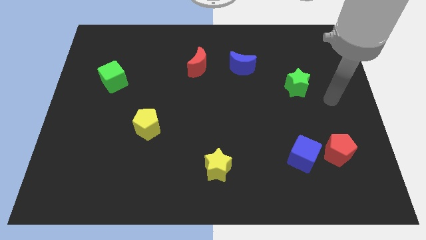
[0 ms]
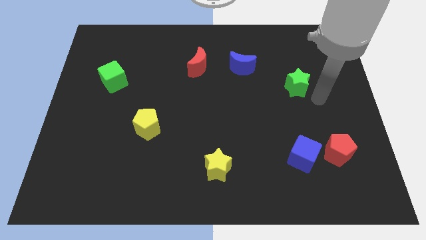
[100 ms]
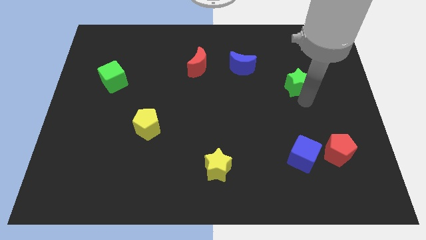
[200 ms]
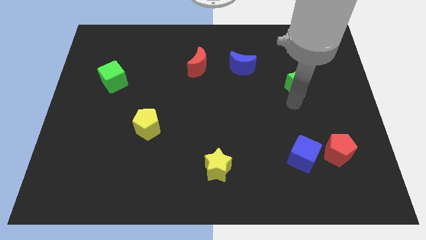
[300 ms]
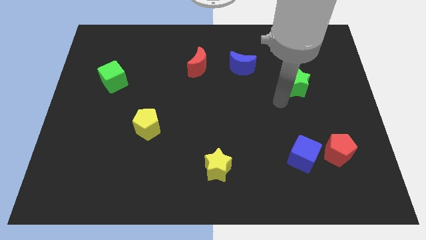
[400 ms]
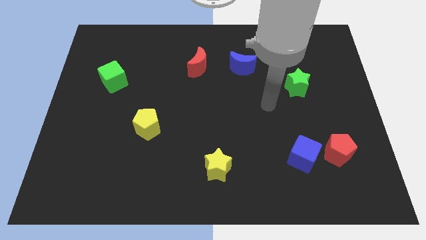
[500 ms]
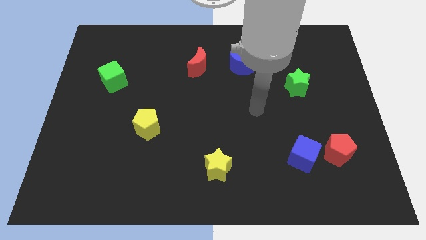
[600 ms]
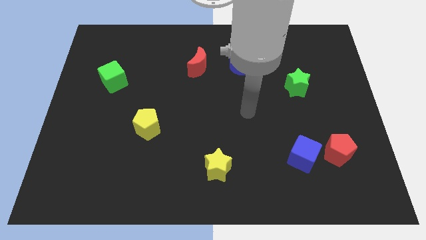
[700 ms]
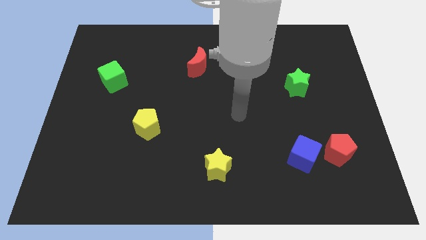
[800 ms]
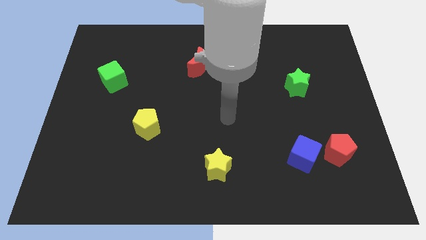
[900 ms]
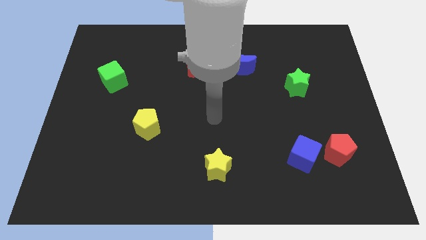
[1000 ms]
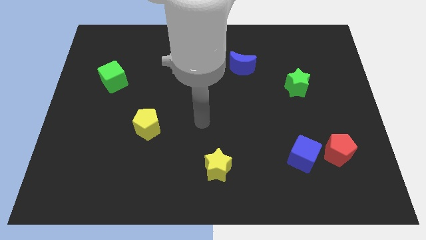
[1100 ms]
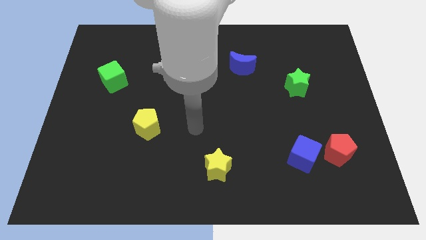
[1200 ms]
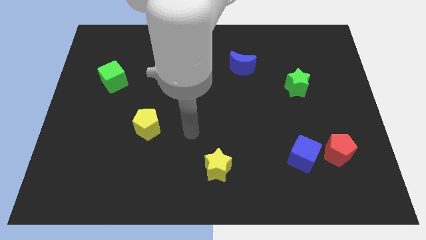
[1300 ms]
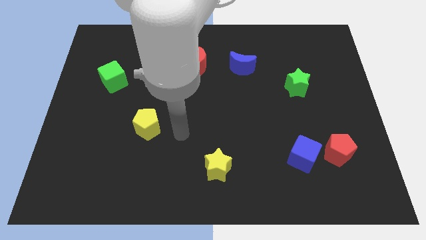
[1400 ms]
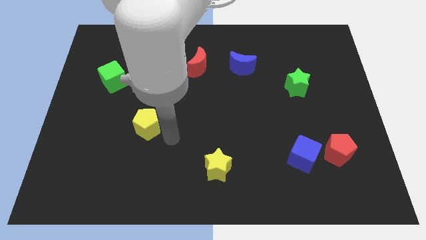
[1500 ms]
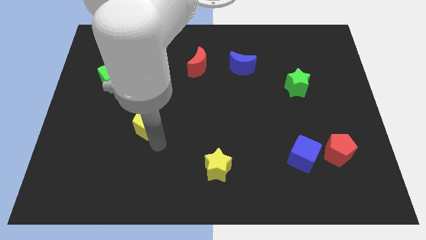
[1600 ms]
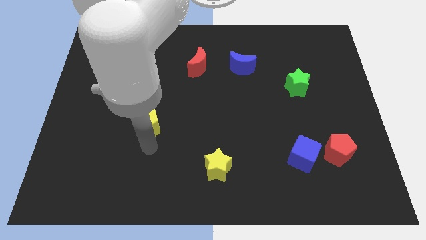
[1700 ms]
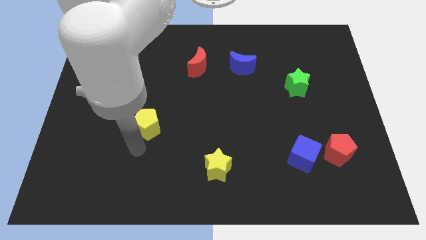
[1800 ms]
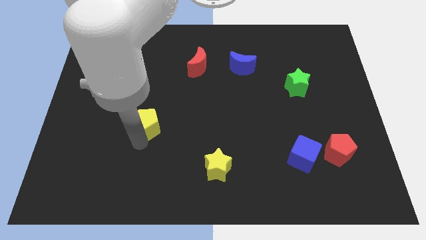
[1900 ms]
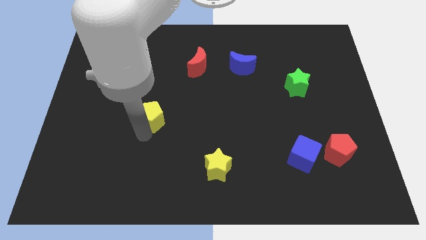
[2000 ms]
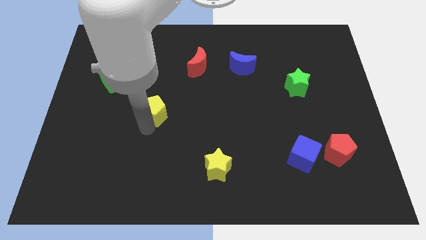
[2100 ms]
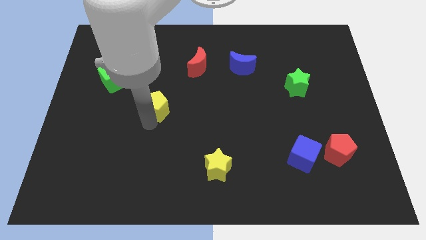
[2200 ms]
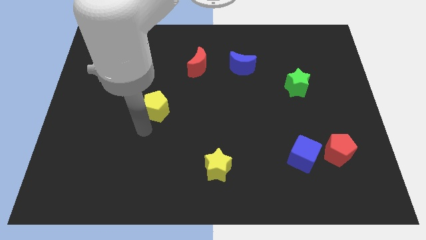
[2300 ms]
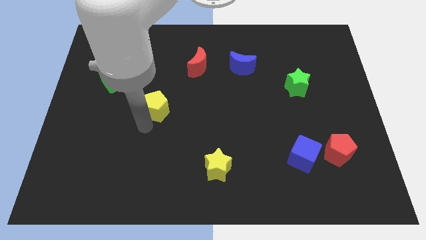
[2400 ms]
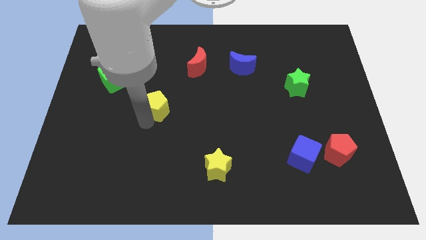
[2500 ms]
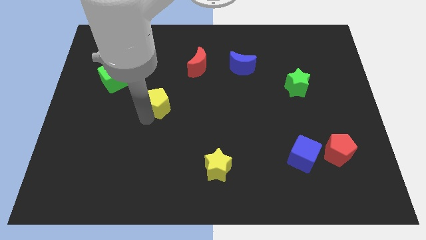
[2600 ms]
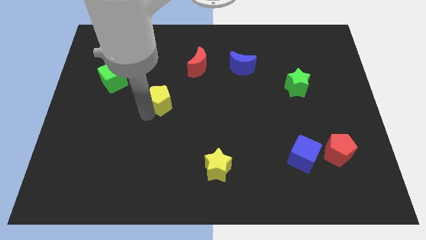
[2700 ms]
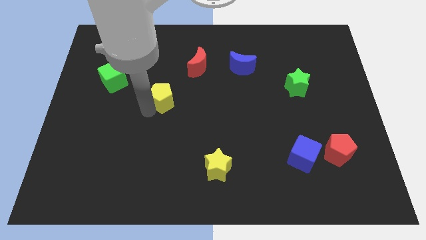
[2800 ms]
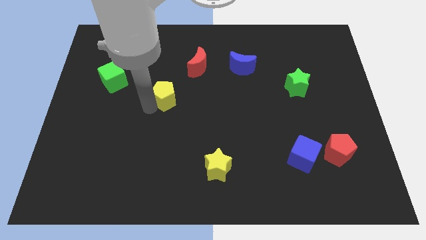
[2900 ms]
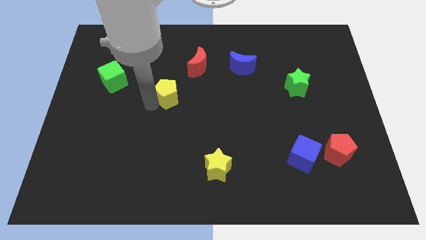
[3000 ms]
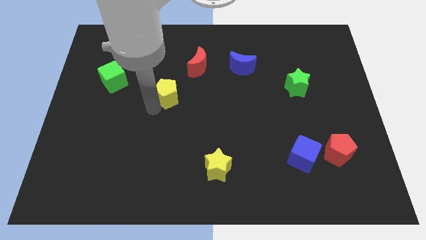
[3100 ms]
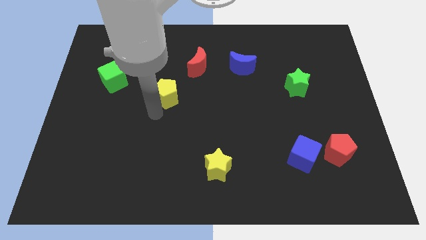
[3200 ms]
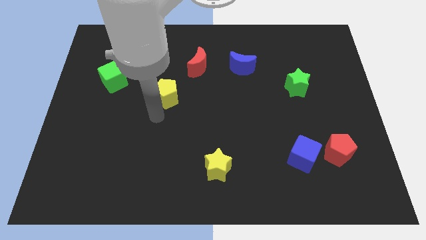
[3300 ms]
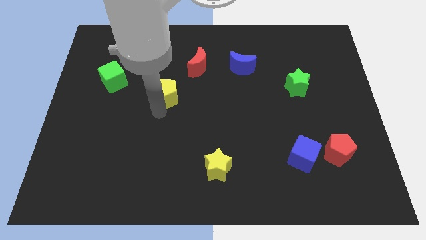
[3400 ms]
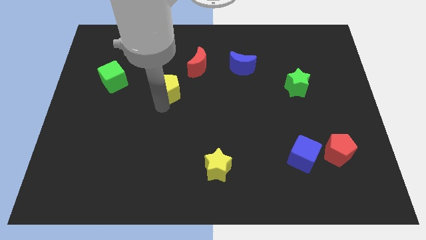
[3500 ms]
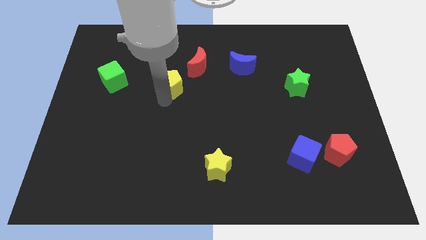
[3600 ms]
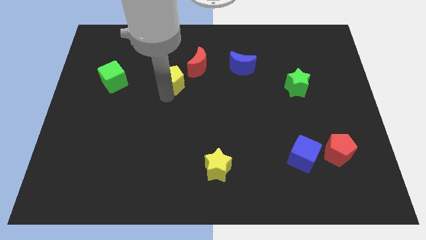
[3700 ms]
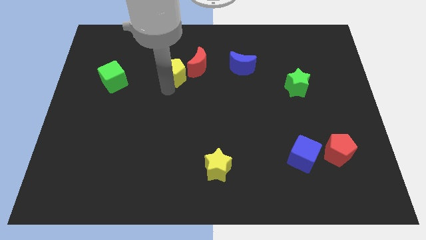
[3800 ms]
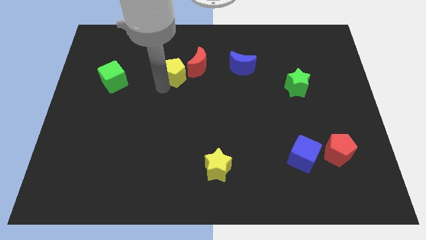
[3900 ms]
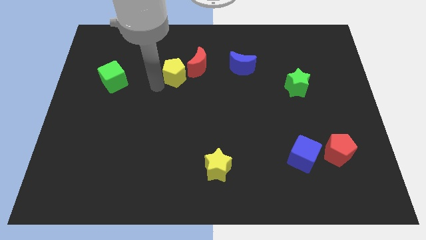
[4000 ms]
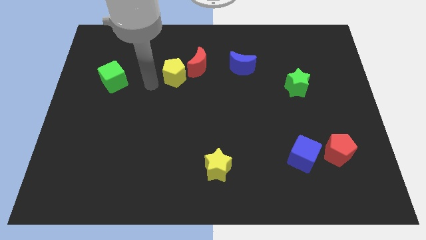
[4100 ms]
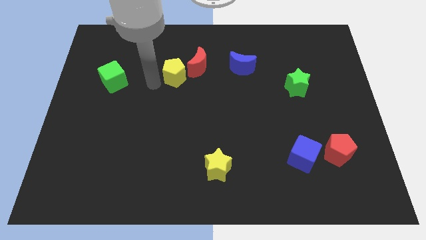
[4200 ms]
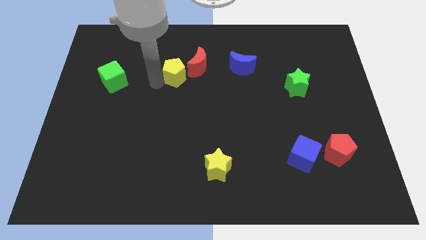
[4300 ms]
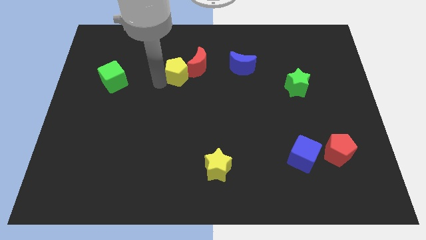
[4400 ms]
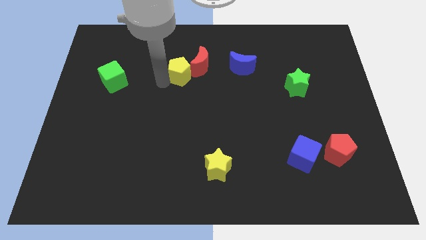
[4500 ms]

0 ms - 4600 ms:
slide the yellow pentagon to the red moon

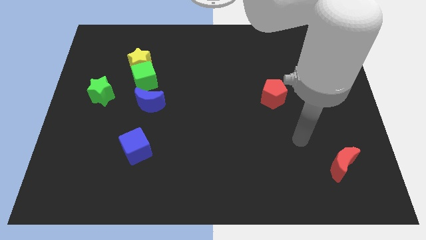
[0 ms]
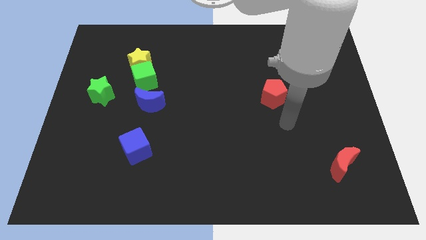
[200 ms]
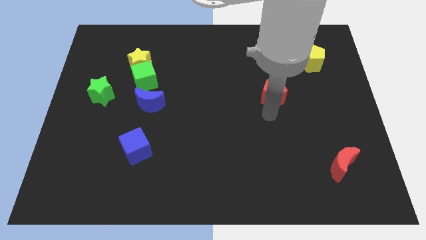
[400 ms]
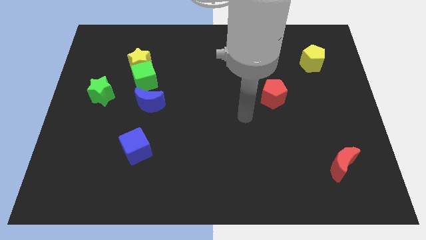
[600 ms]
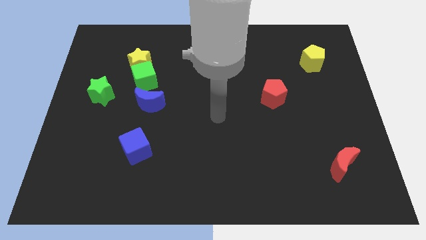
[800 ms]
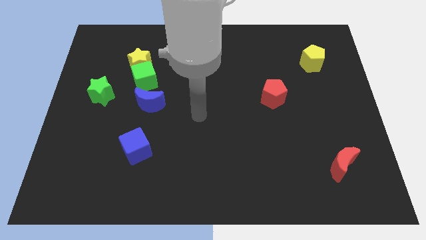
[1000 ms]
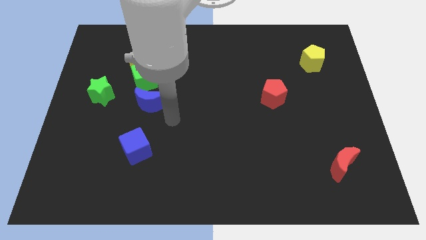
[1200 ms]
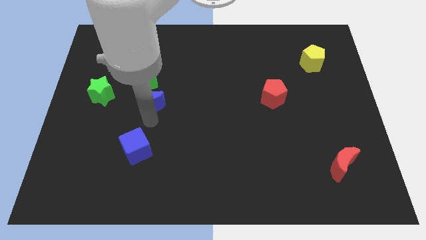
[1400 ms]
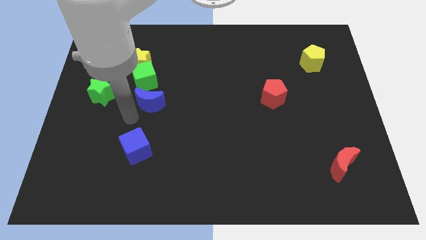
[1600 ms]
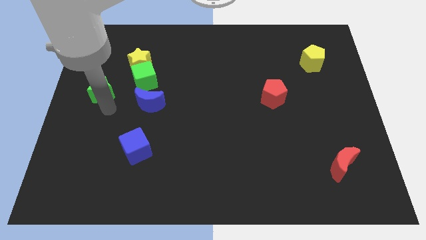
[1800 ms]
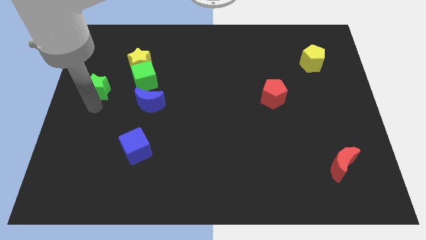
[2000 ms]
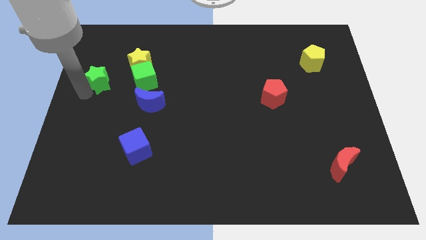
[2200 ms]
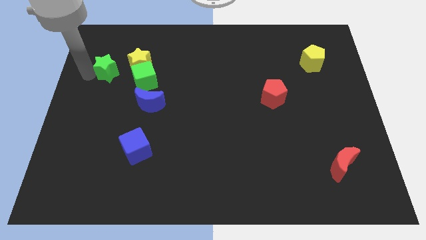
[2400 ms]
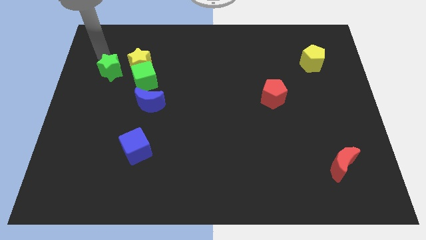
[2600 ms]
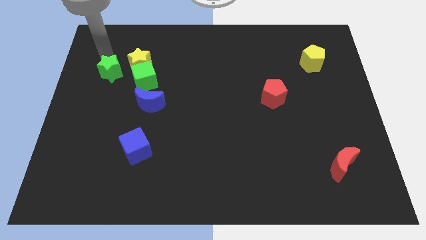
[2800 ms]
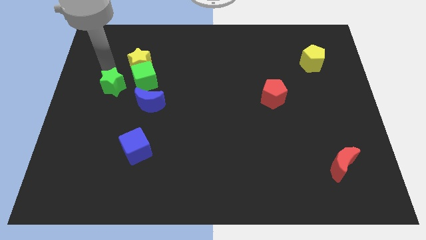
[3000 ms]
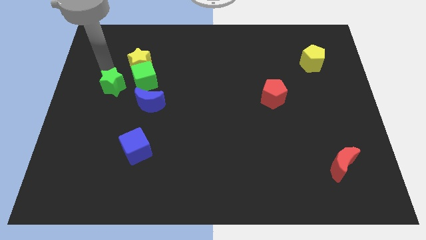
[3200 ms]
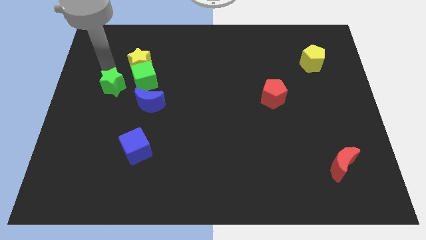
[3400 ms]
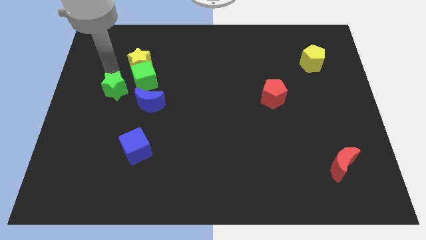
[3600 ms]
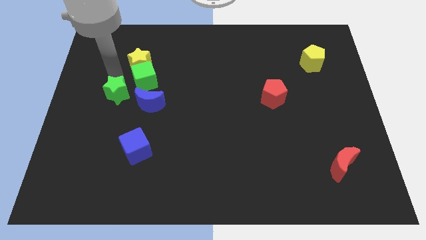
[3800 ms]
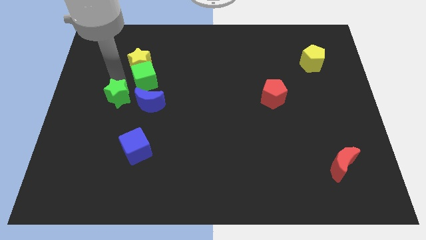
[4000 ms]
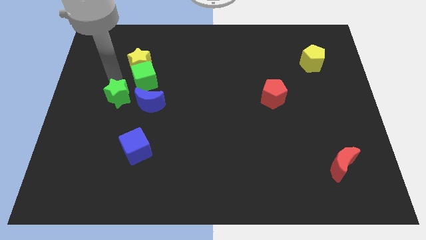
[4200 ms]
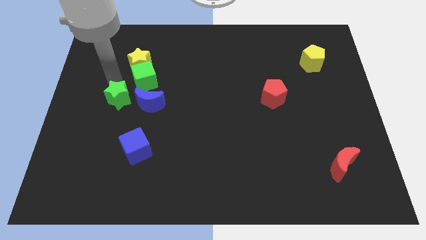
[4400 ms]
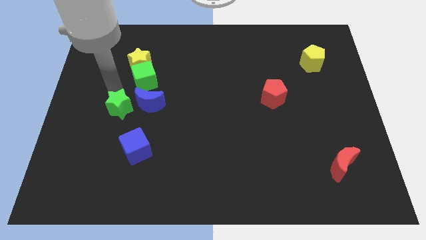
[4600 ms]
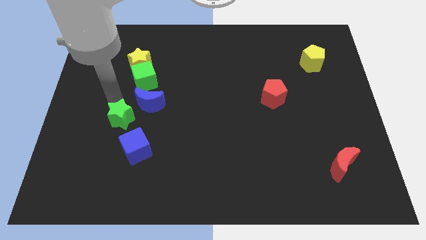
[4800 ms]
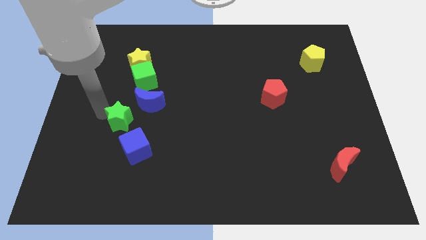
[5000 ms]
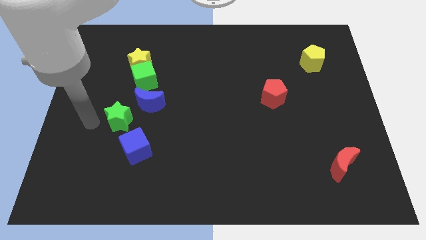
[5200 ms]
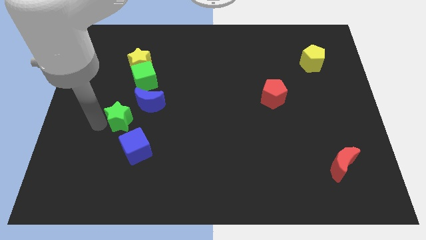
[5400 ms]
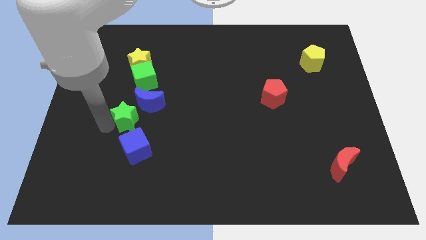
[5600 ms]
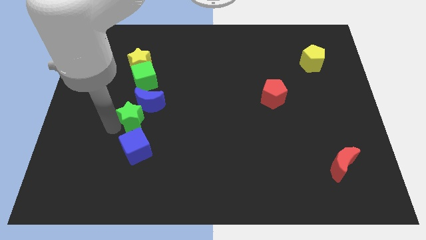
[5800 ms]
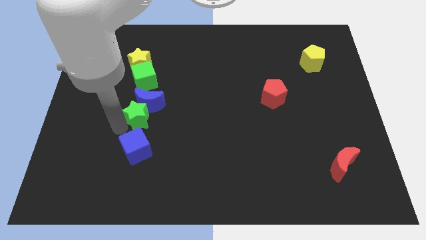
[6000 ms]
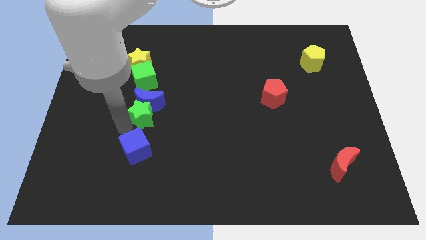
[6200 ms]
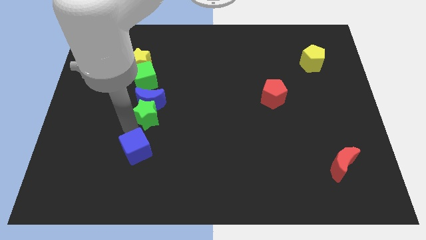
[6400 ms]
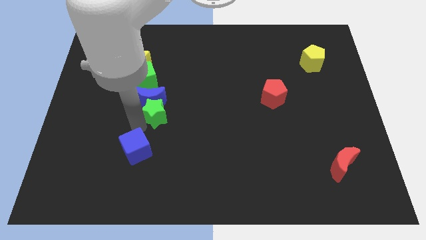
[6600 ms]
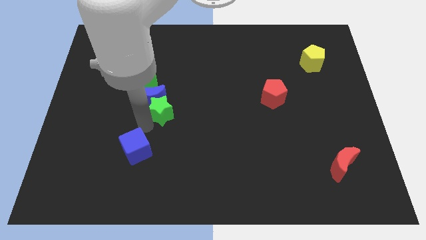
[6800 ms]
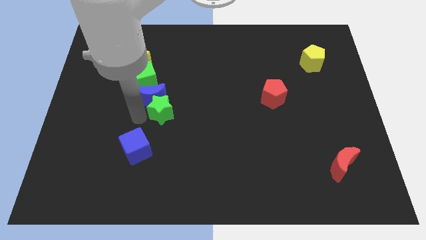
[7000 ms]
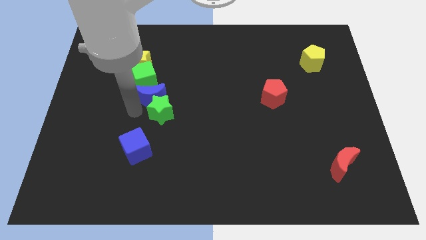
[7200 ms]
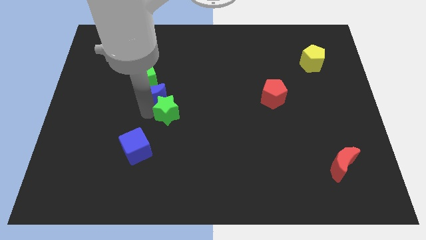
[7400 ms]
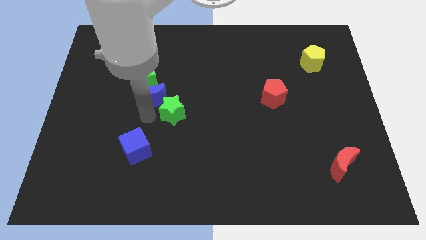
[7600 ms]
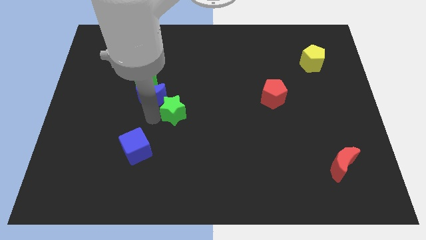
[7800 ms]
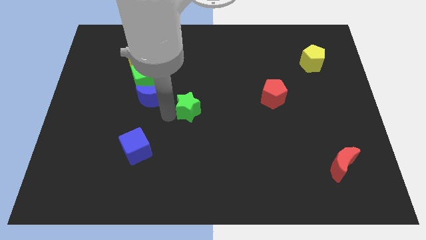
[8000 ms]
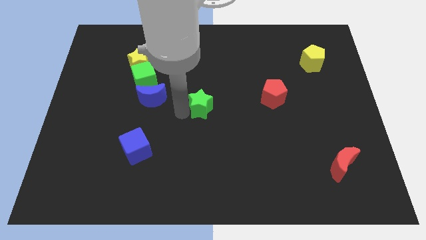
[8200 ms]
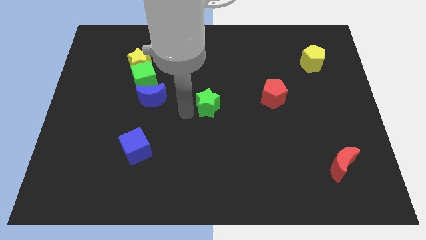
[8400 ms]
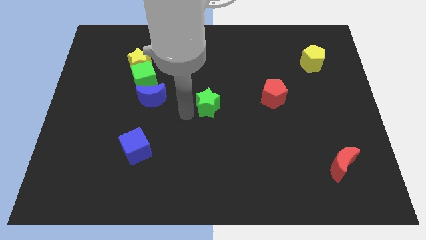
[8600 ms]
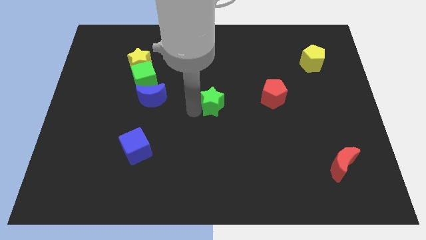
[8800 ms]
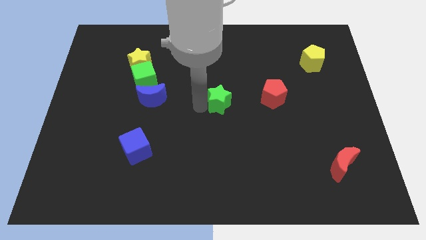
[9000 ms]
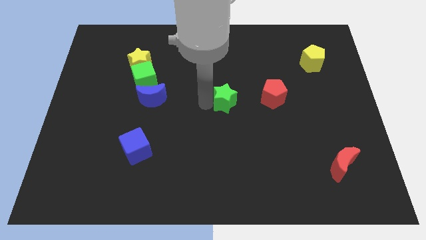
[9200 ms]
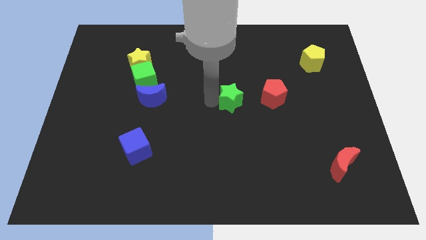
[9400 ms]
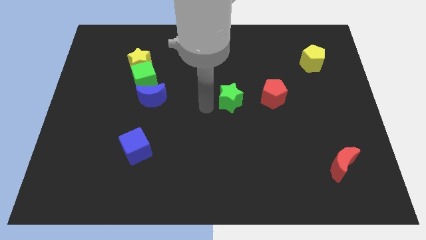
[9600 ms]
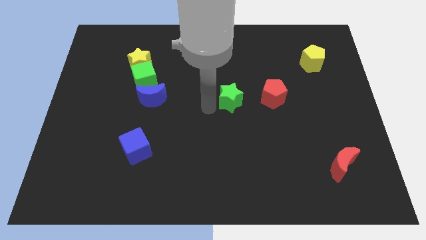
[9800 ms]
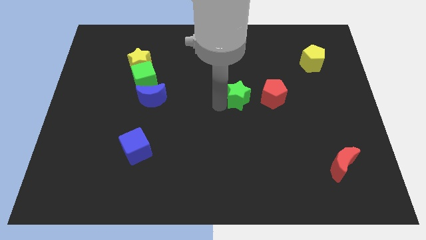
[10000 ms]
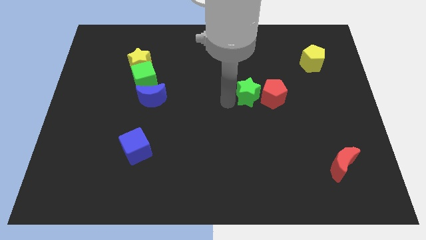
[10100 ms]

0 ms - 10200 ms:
slide the green star to the red pentagon
